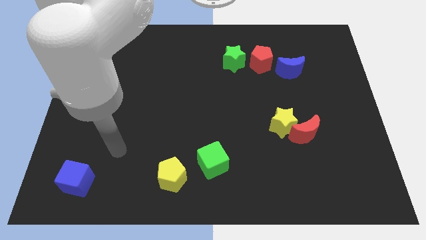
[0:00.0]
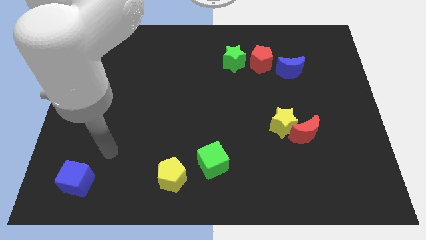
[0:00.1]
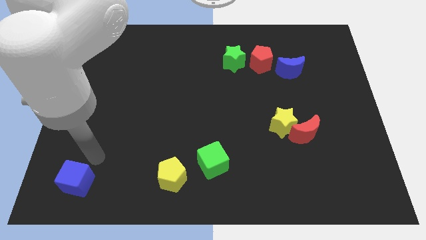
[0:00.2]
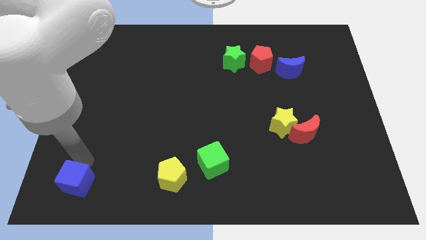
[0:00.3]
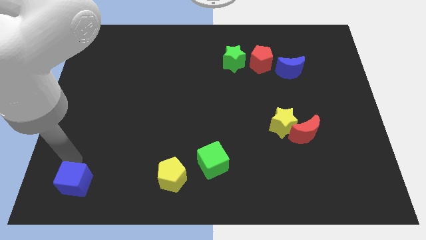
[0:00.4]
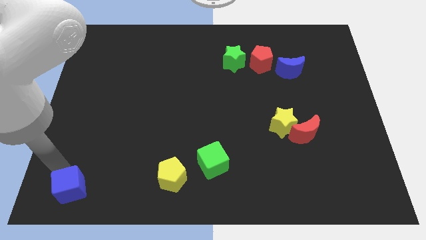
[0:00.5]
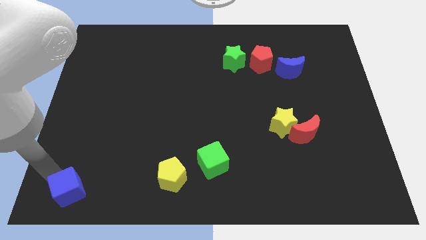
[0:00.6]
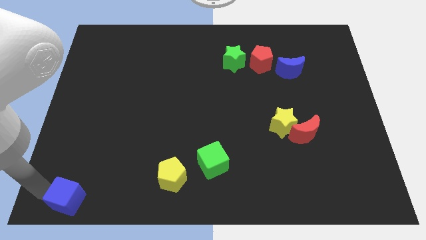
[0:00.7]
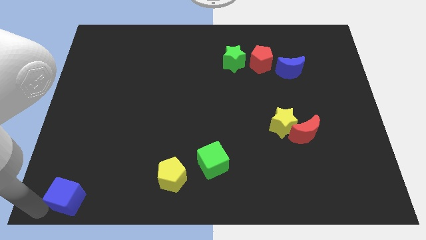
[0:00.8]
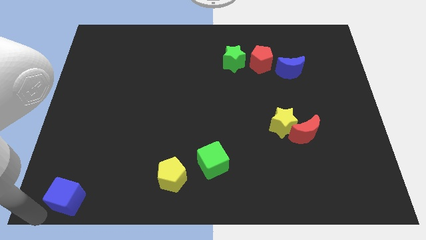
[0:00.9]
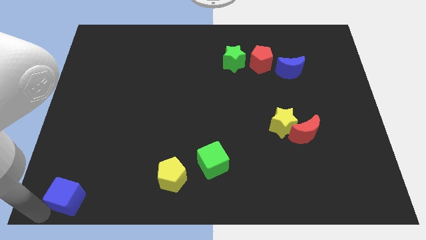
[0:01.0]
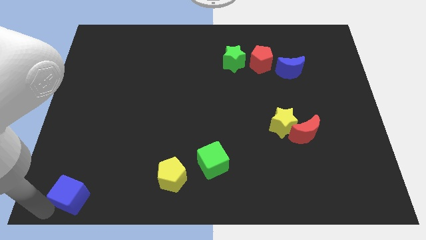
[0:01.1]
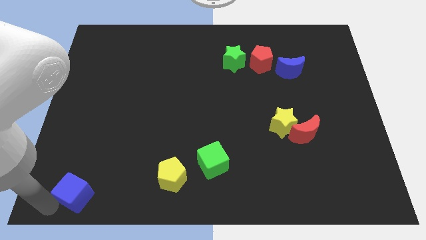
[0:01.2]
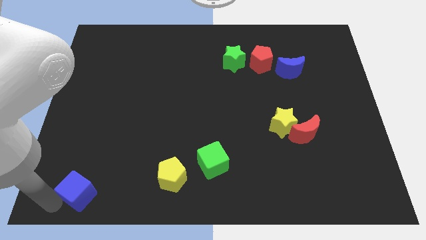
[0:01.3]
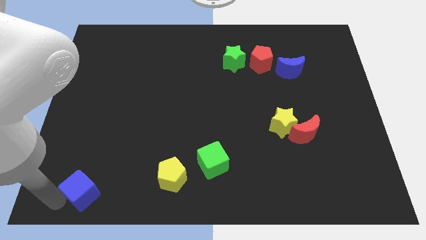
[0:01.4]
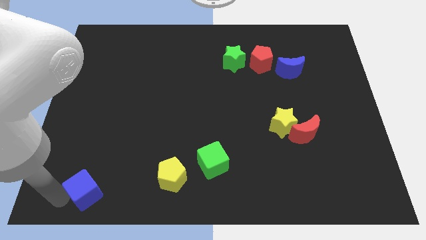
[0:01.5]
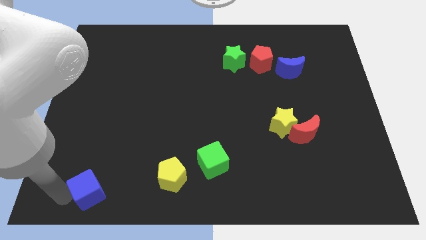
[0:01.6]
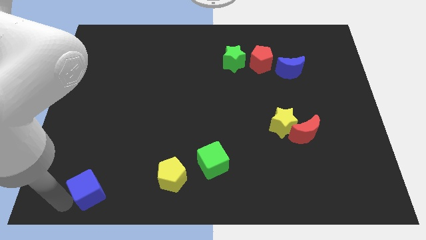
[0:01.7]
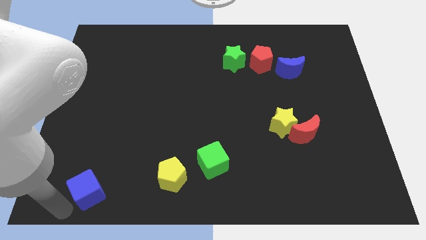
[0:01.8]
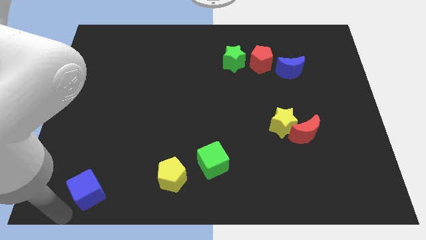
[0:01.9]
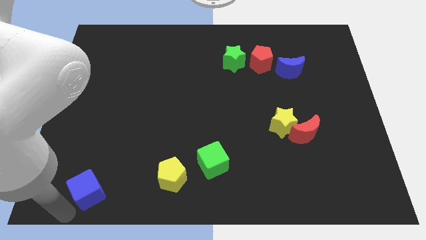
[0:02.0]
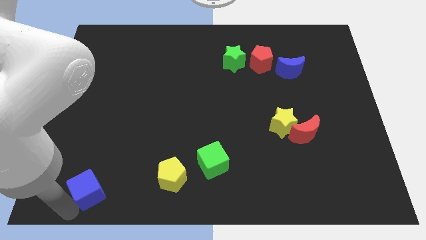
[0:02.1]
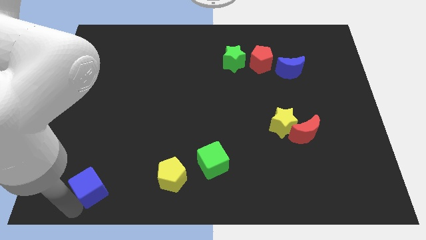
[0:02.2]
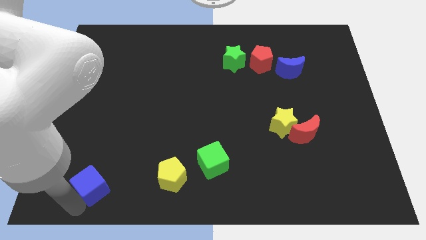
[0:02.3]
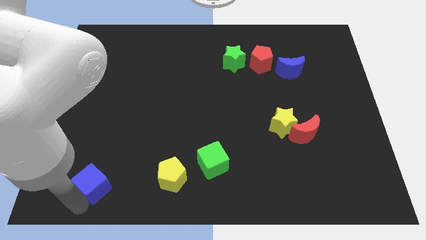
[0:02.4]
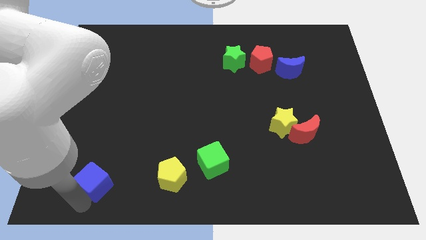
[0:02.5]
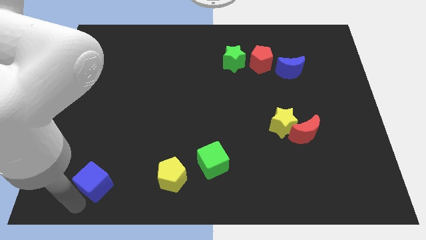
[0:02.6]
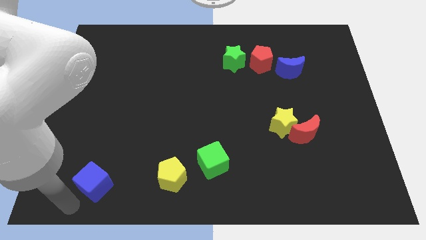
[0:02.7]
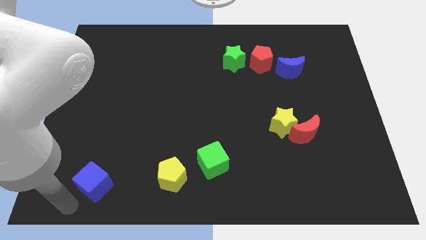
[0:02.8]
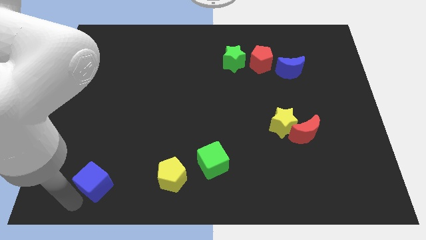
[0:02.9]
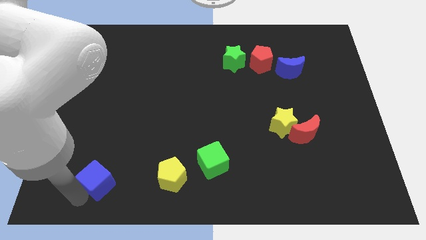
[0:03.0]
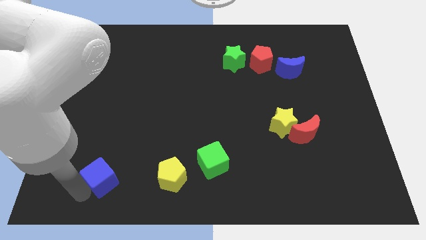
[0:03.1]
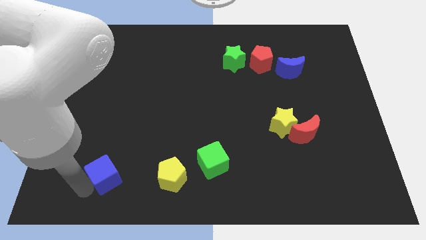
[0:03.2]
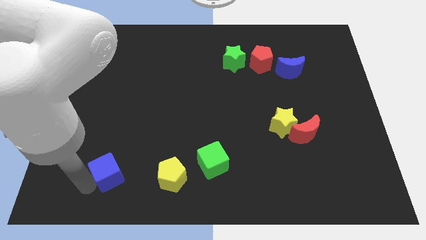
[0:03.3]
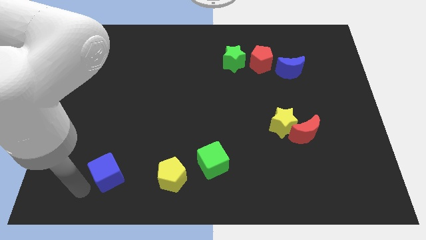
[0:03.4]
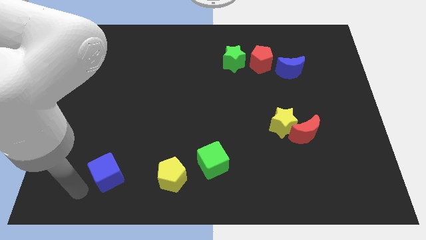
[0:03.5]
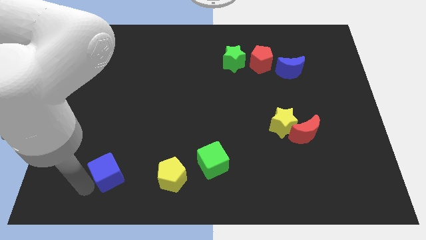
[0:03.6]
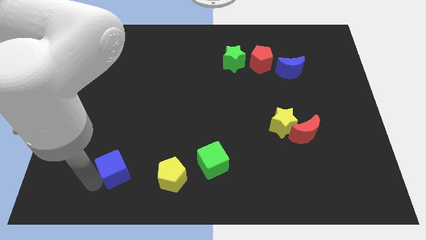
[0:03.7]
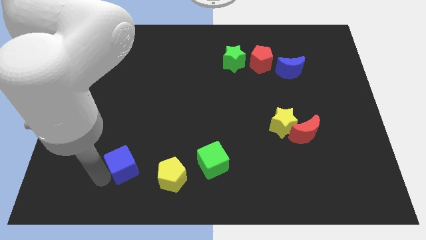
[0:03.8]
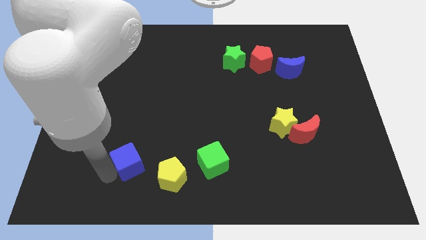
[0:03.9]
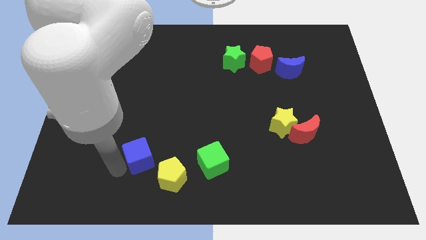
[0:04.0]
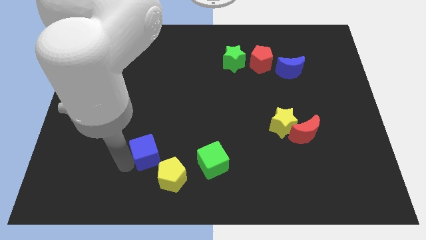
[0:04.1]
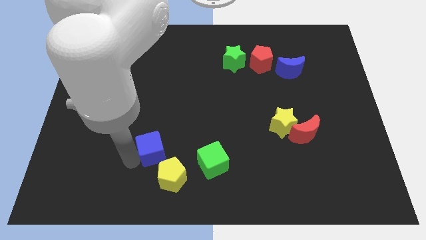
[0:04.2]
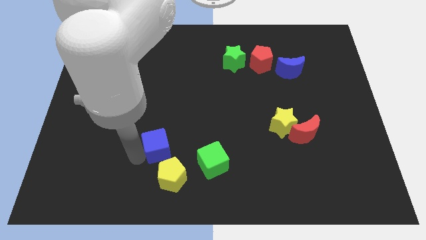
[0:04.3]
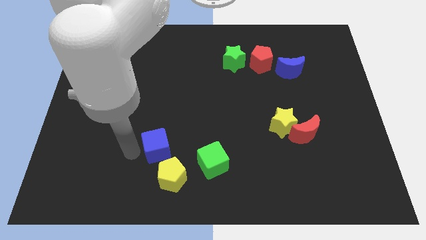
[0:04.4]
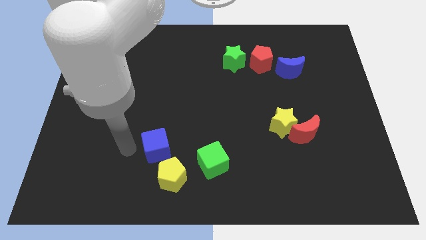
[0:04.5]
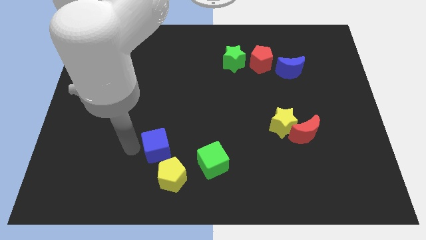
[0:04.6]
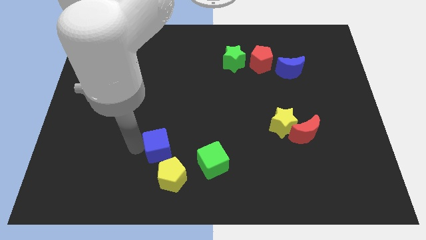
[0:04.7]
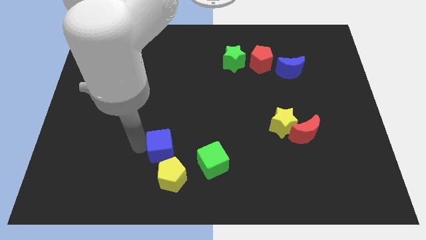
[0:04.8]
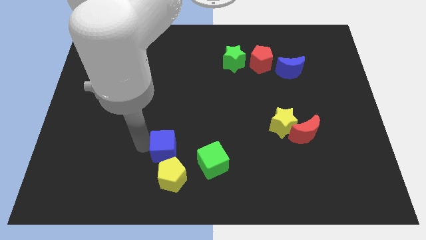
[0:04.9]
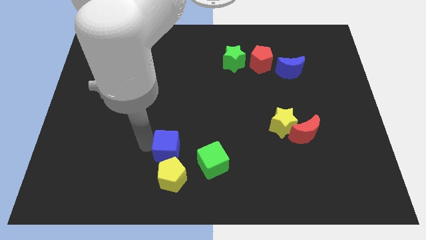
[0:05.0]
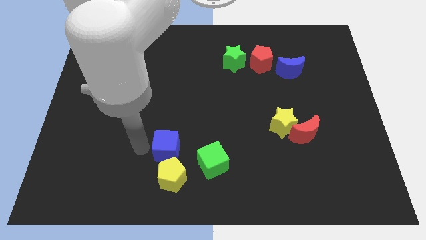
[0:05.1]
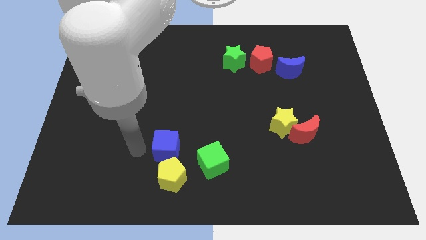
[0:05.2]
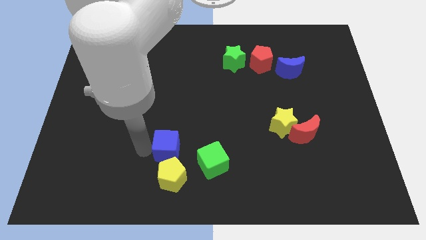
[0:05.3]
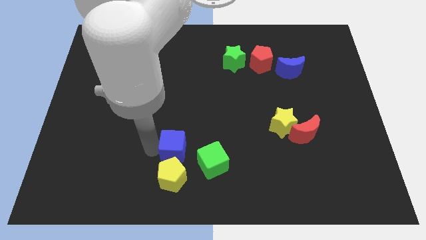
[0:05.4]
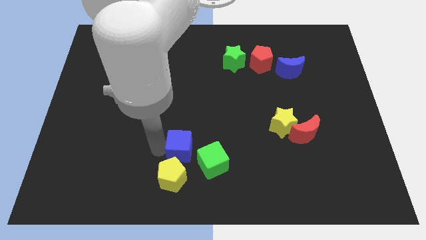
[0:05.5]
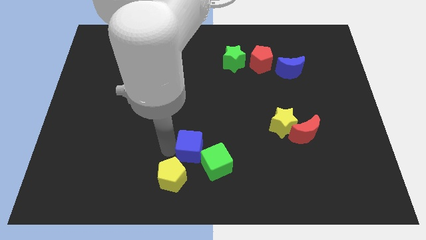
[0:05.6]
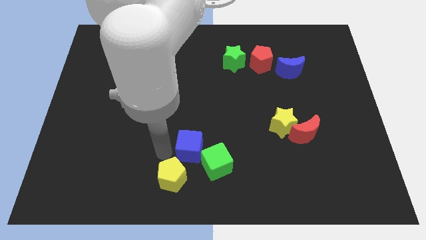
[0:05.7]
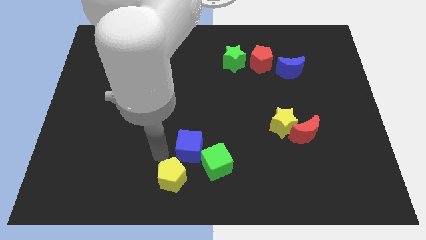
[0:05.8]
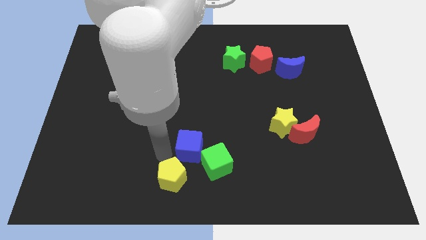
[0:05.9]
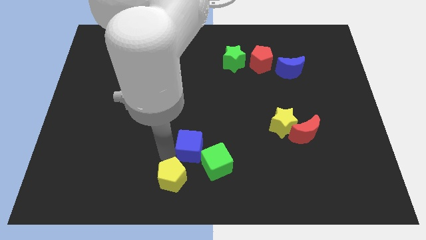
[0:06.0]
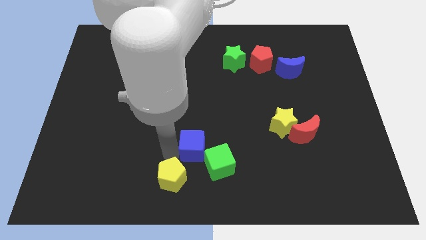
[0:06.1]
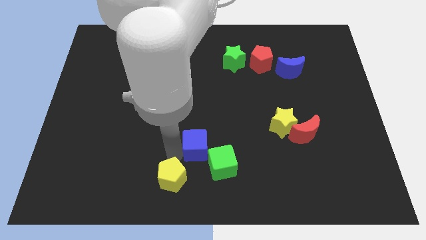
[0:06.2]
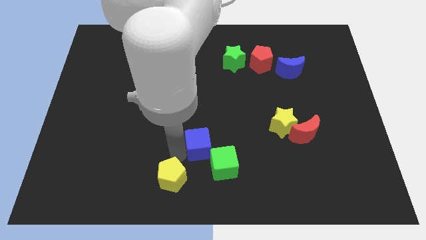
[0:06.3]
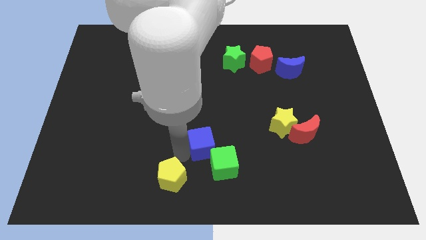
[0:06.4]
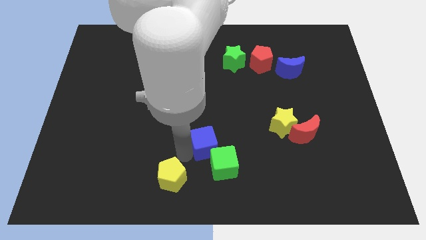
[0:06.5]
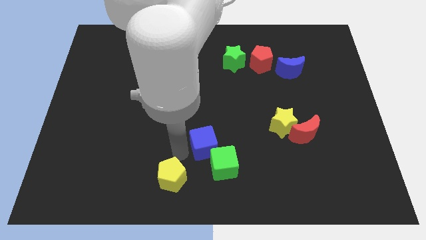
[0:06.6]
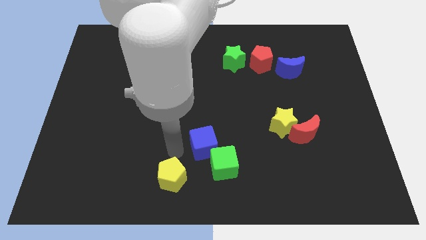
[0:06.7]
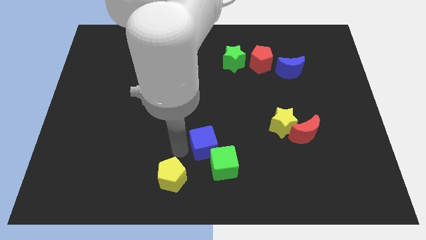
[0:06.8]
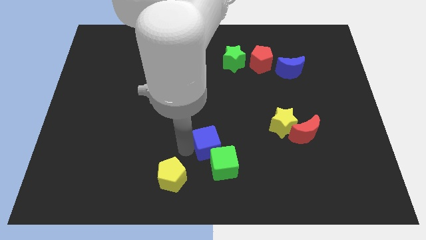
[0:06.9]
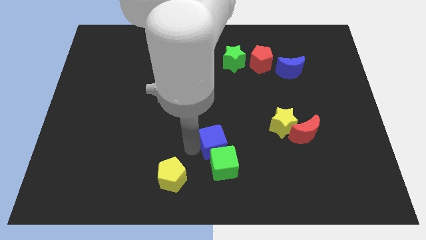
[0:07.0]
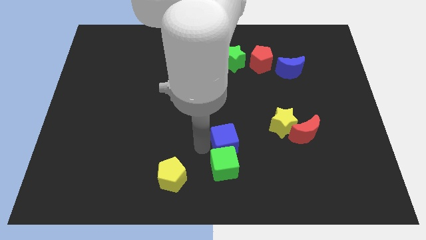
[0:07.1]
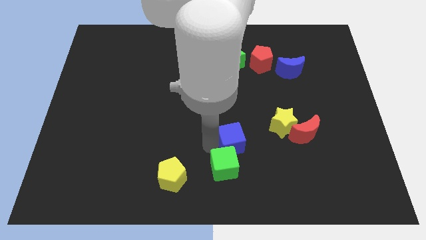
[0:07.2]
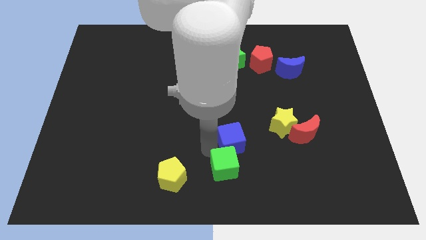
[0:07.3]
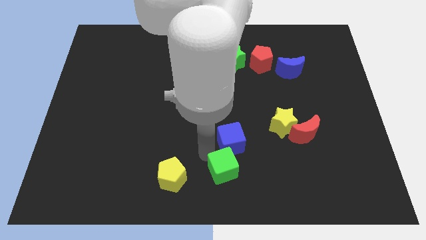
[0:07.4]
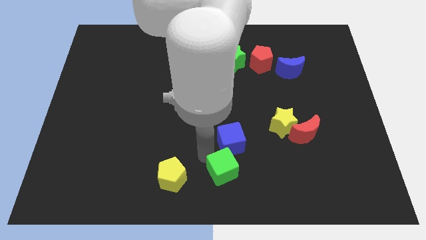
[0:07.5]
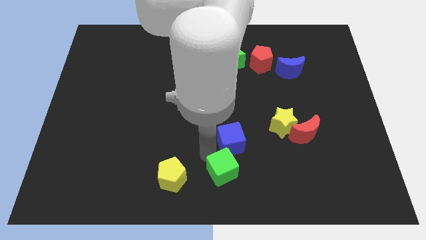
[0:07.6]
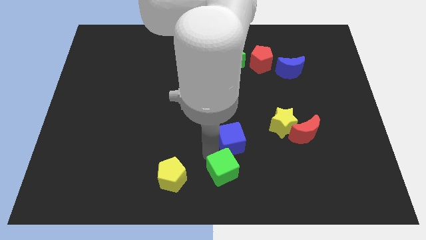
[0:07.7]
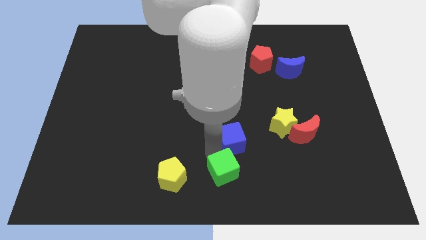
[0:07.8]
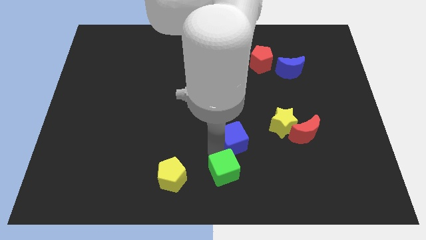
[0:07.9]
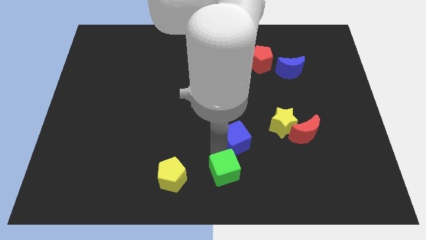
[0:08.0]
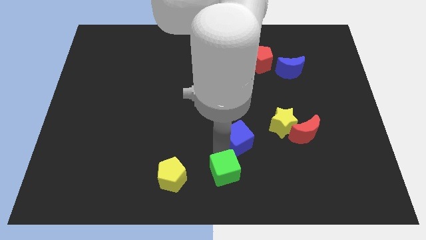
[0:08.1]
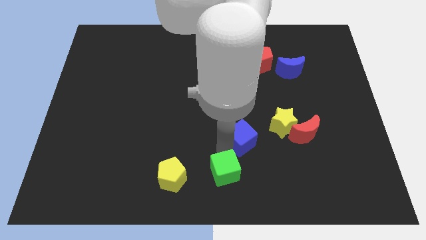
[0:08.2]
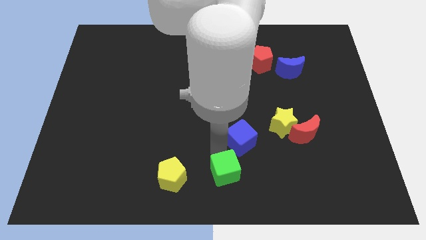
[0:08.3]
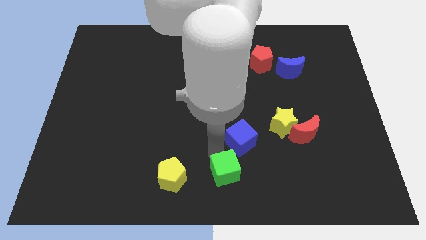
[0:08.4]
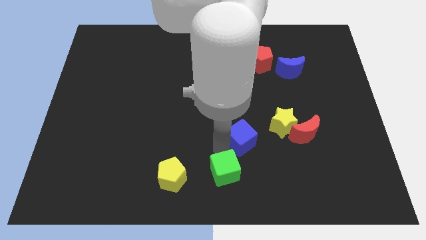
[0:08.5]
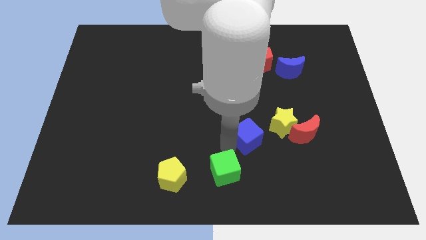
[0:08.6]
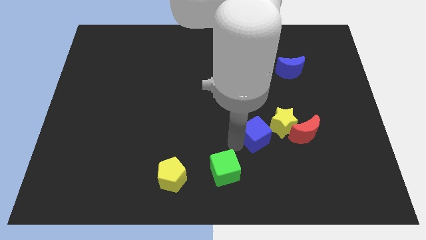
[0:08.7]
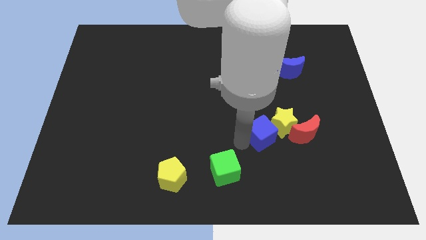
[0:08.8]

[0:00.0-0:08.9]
put the blue cube next to the yellow star
